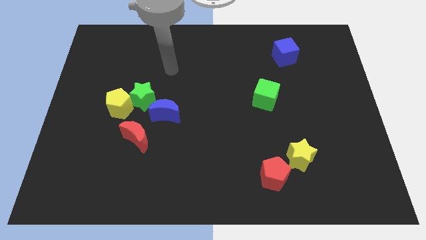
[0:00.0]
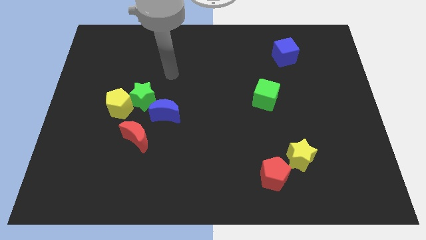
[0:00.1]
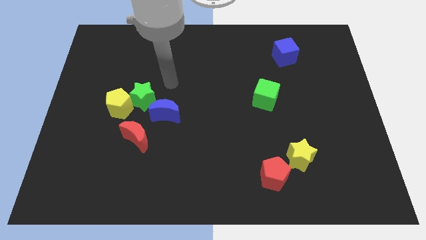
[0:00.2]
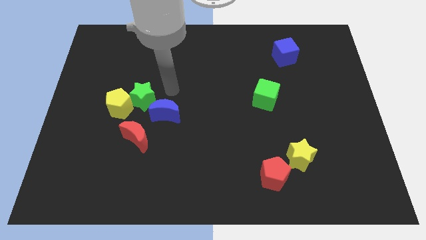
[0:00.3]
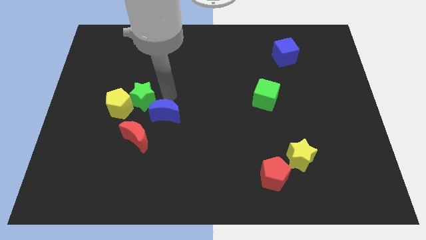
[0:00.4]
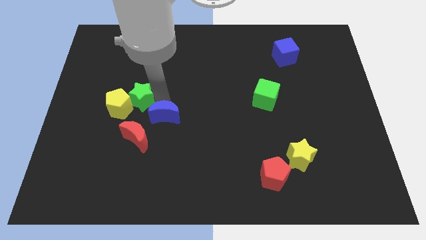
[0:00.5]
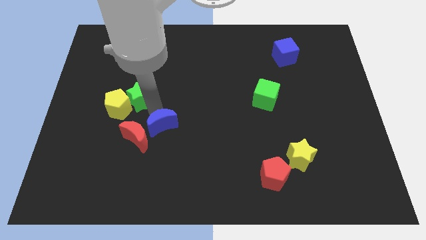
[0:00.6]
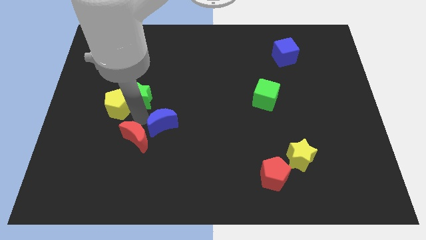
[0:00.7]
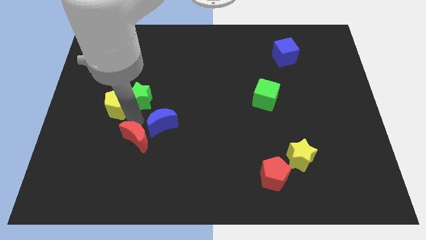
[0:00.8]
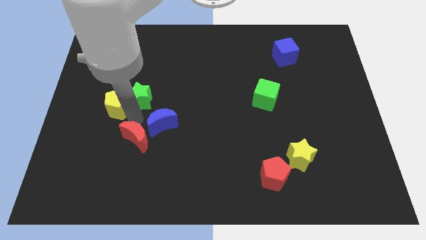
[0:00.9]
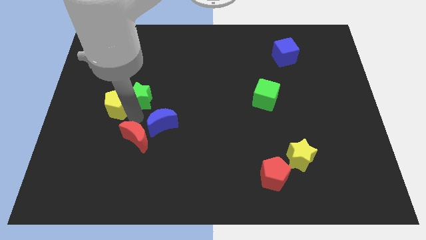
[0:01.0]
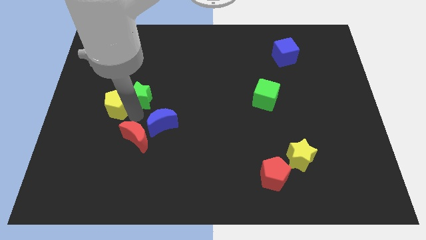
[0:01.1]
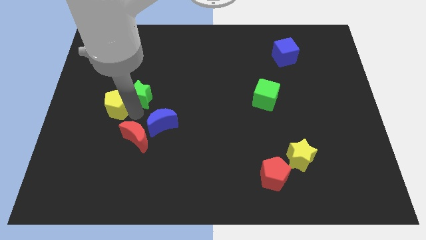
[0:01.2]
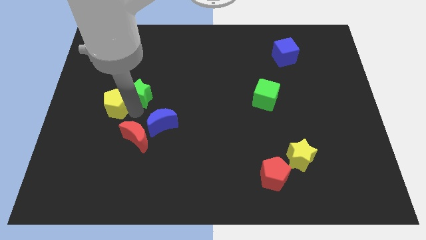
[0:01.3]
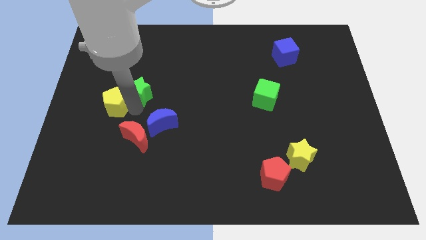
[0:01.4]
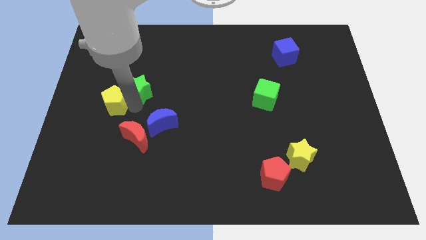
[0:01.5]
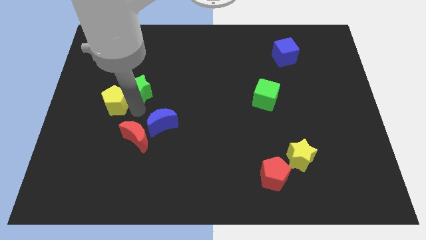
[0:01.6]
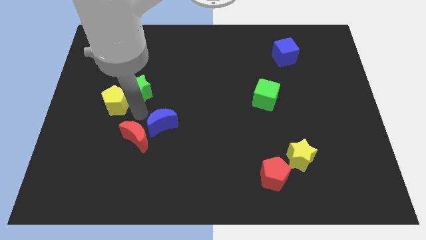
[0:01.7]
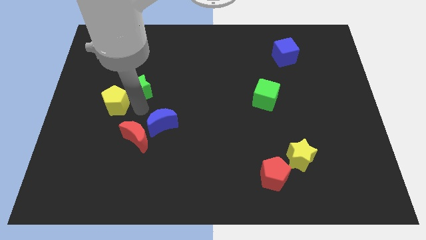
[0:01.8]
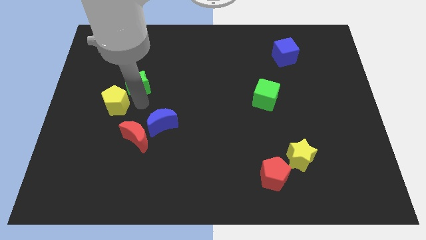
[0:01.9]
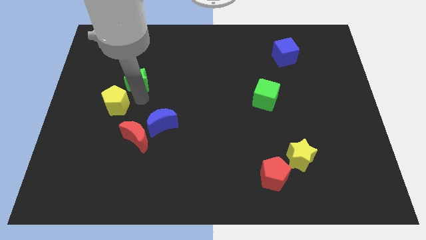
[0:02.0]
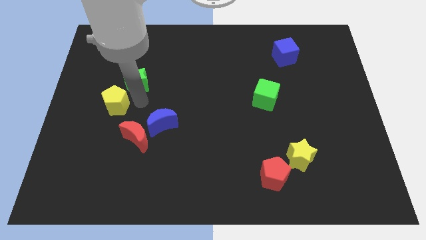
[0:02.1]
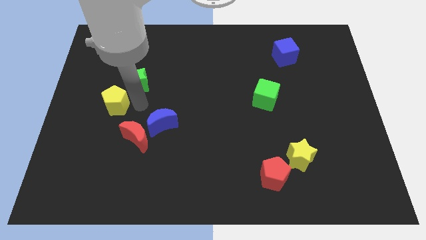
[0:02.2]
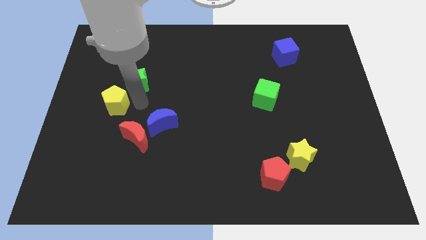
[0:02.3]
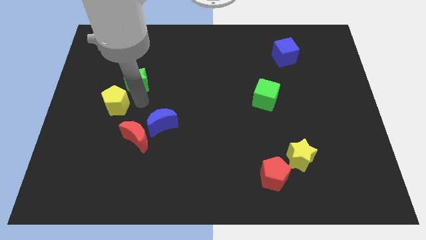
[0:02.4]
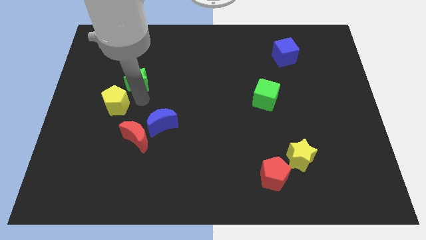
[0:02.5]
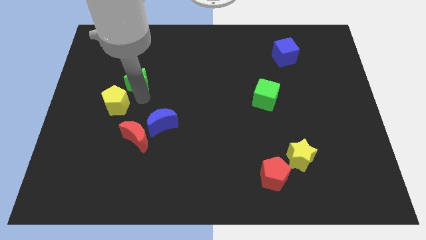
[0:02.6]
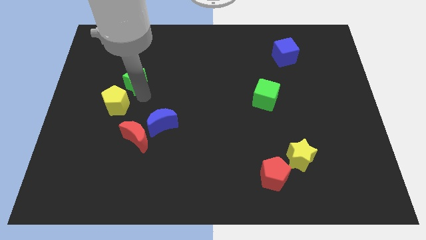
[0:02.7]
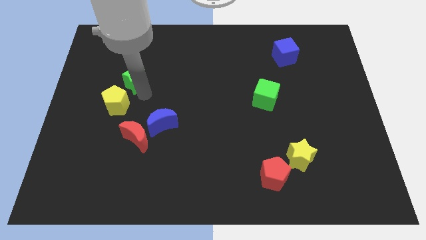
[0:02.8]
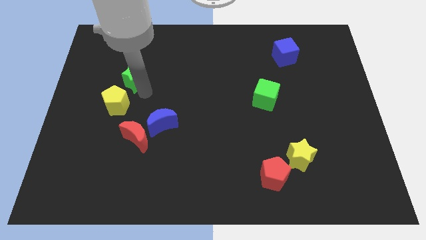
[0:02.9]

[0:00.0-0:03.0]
separate the green star from the yellow pentagon and blue moon

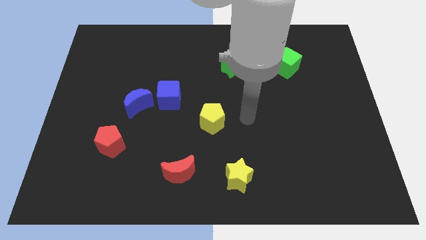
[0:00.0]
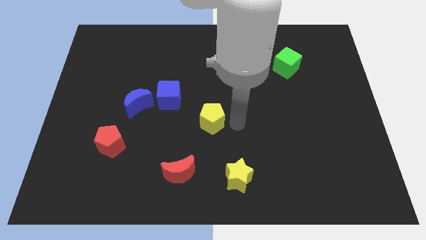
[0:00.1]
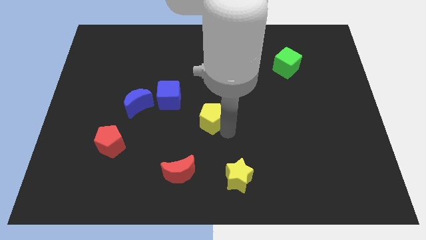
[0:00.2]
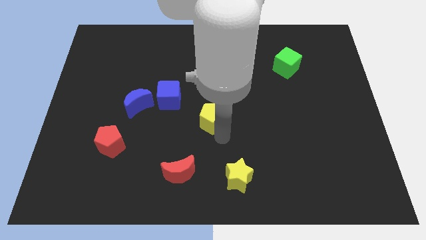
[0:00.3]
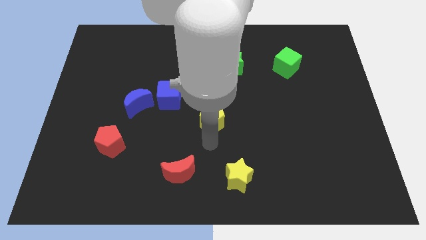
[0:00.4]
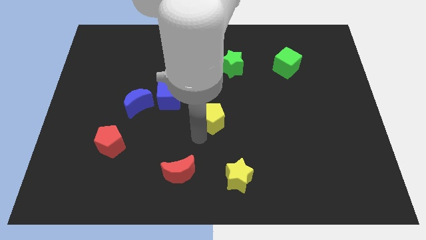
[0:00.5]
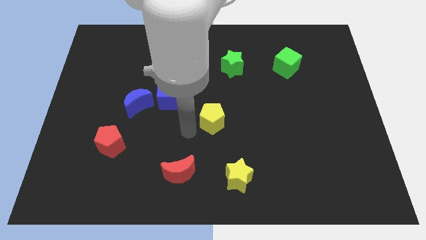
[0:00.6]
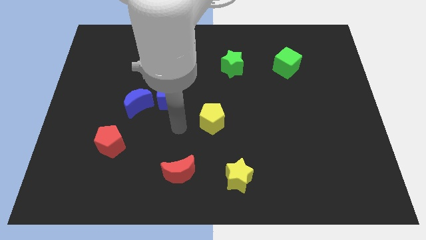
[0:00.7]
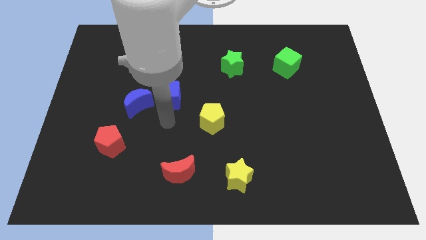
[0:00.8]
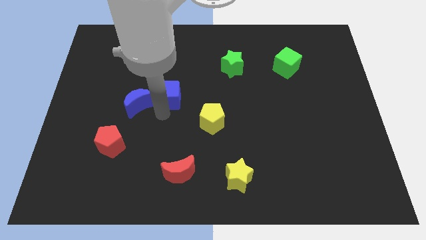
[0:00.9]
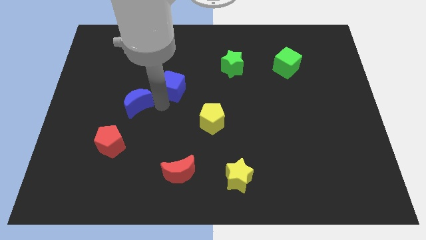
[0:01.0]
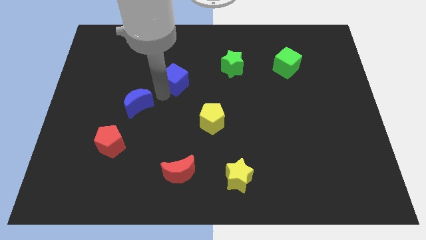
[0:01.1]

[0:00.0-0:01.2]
move the blue moon away from the blue cube

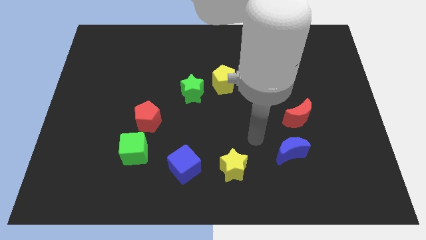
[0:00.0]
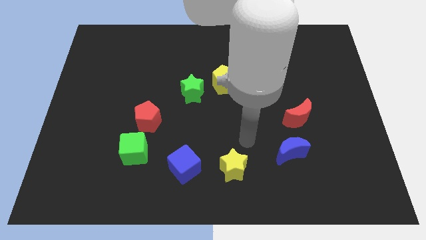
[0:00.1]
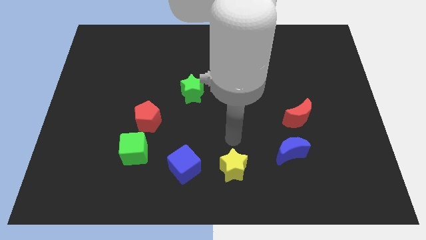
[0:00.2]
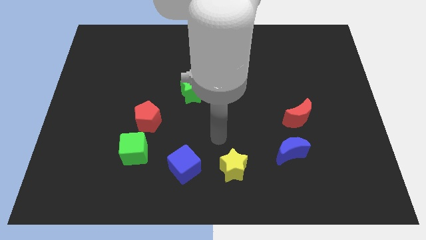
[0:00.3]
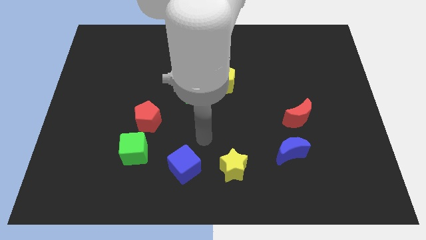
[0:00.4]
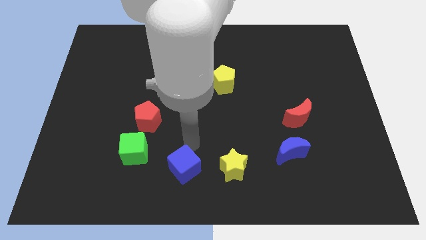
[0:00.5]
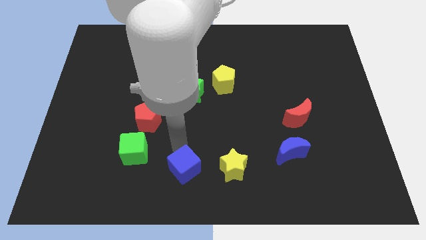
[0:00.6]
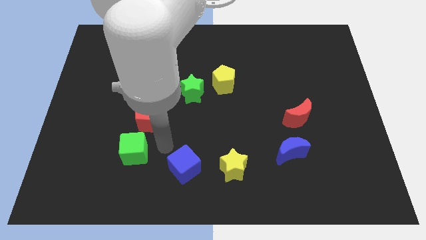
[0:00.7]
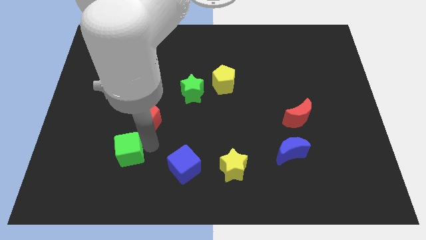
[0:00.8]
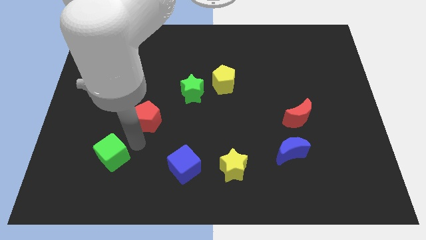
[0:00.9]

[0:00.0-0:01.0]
separate the red pentagon from the green cube

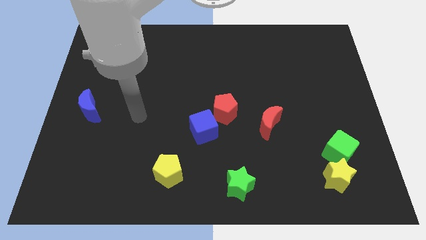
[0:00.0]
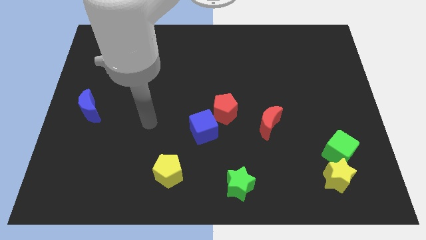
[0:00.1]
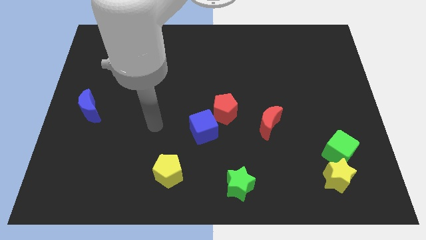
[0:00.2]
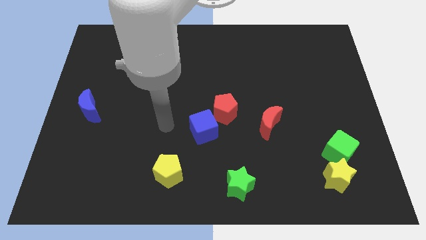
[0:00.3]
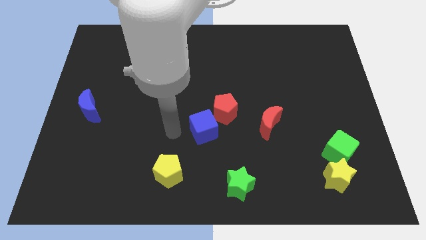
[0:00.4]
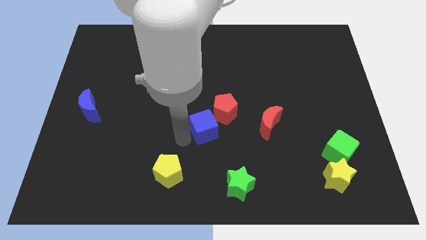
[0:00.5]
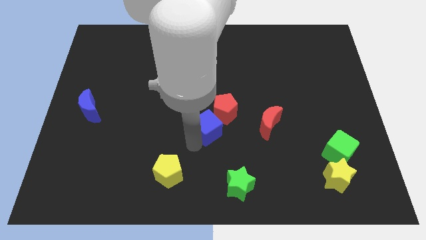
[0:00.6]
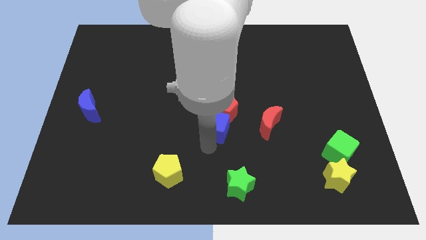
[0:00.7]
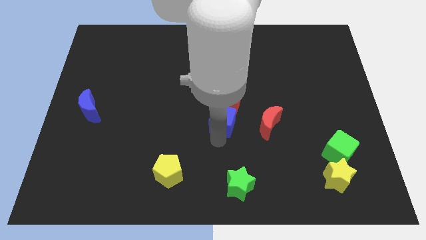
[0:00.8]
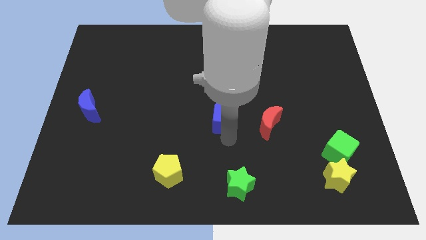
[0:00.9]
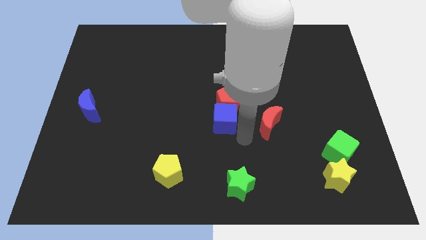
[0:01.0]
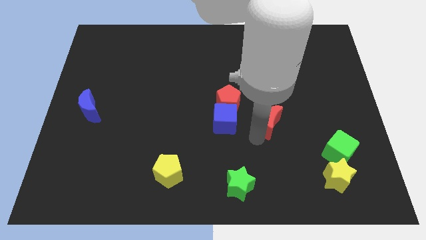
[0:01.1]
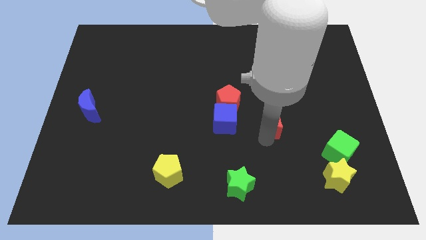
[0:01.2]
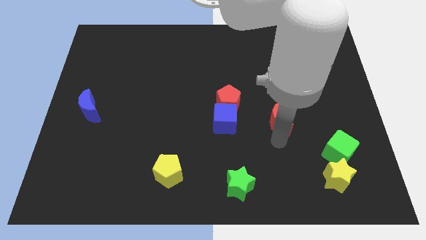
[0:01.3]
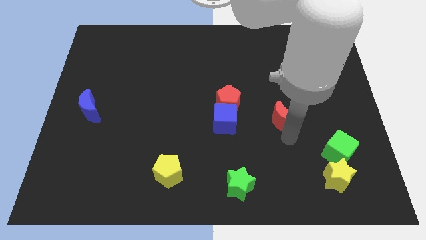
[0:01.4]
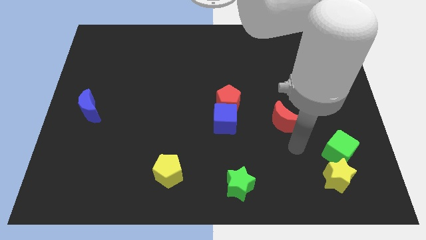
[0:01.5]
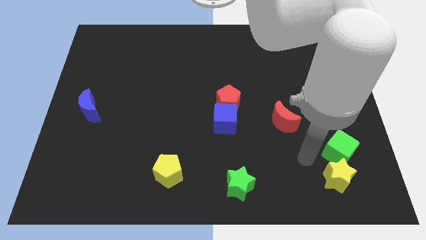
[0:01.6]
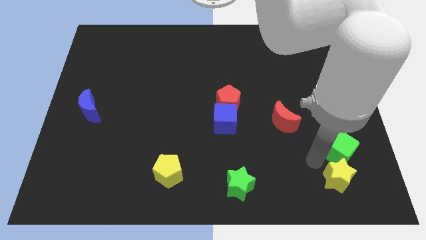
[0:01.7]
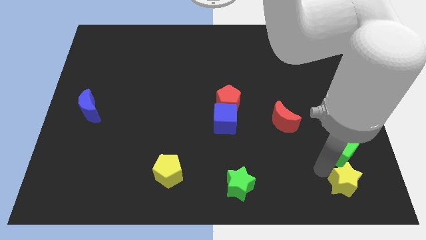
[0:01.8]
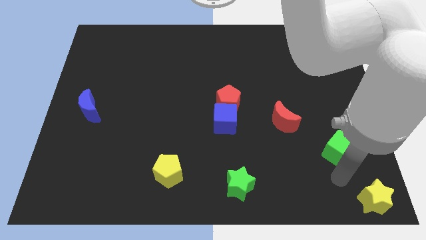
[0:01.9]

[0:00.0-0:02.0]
pull the green cube apart from the yellow star

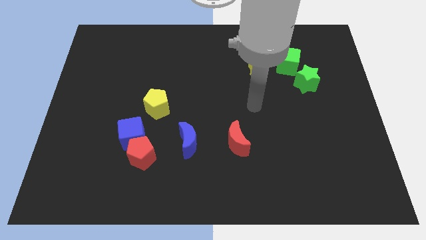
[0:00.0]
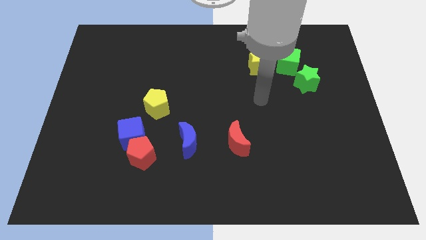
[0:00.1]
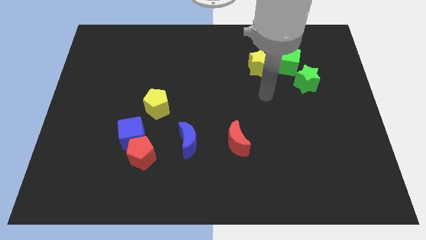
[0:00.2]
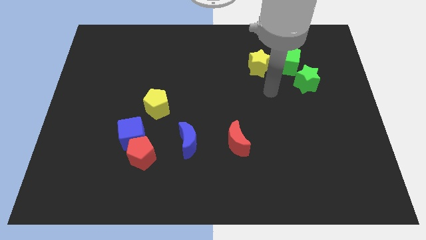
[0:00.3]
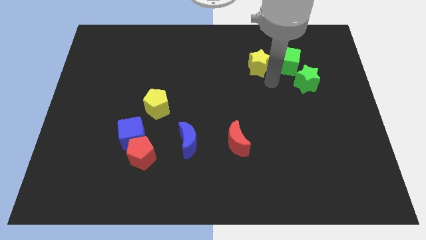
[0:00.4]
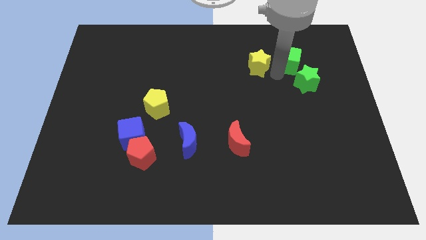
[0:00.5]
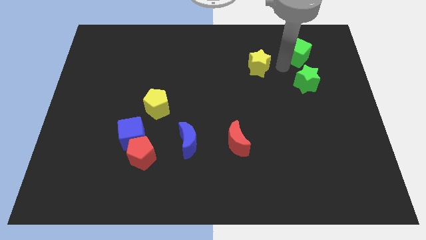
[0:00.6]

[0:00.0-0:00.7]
separate the yellow star from the green cube

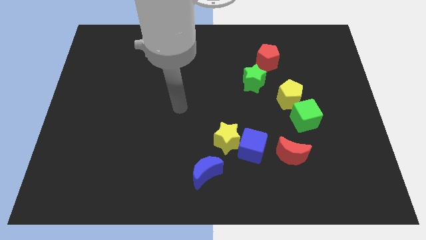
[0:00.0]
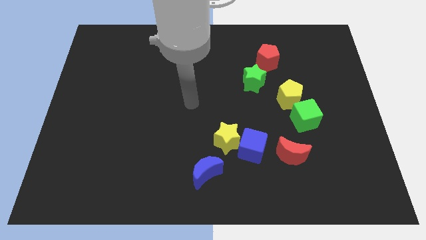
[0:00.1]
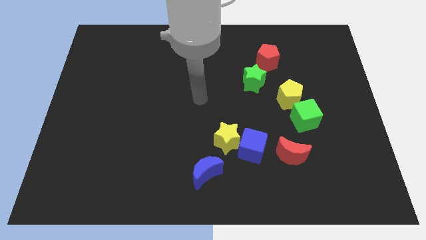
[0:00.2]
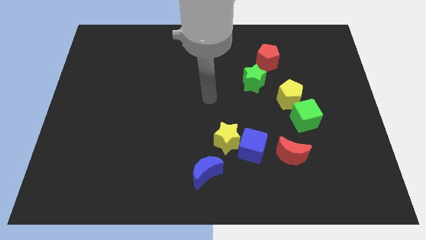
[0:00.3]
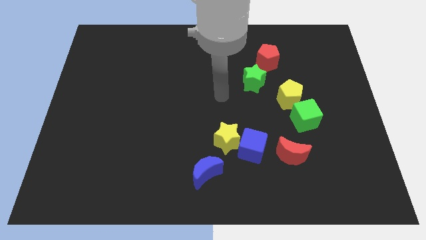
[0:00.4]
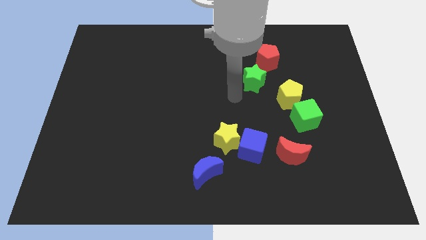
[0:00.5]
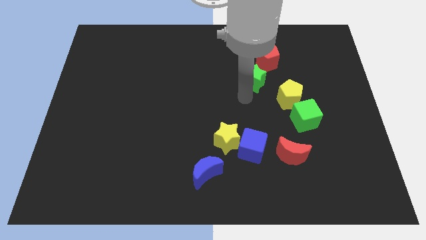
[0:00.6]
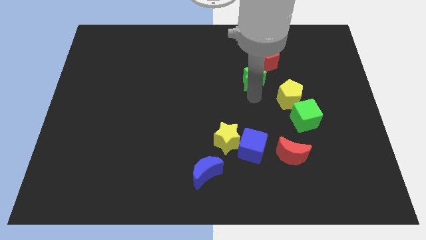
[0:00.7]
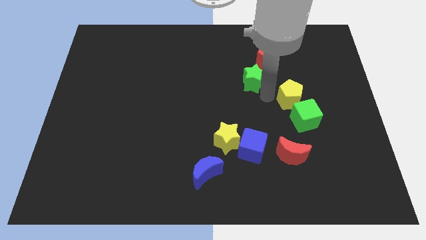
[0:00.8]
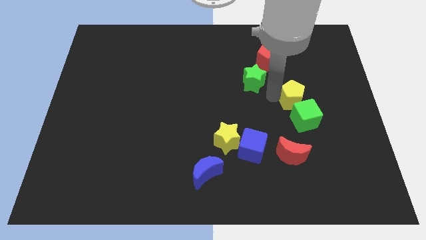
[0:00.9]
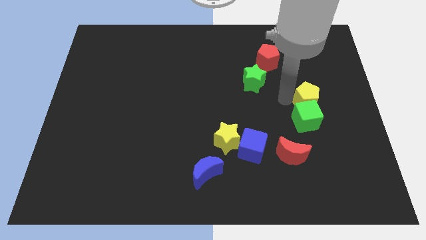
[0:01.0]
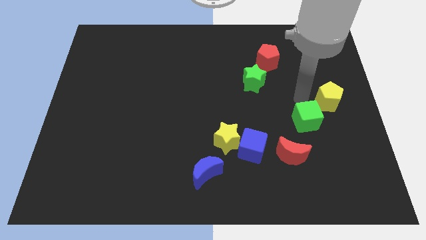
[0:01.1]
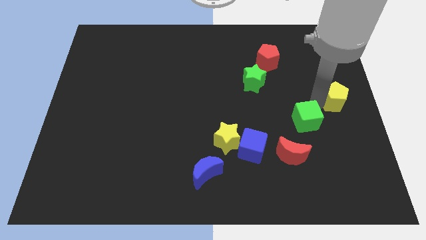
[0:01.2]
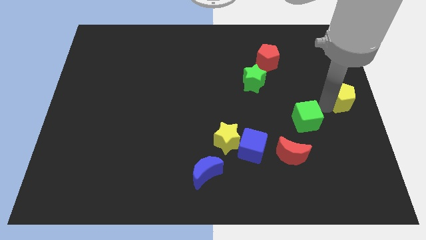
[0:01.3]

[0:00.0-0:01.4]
move the green cube away from the yellow pentagon
